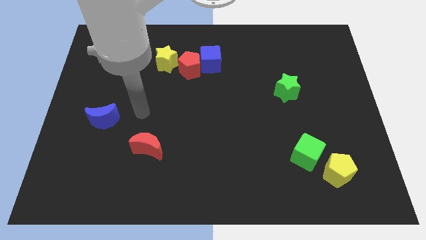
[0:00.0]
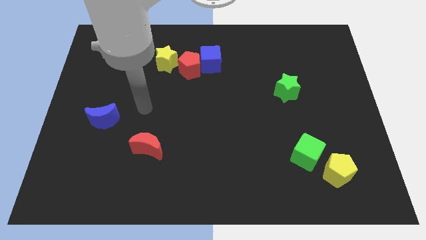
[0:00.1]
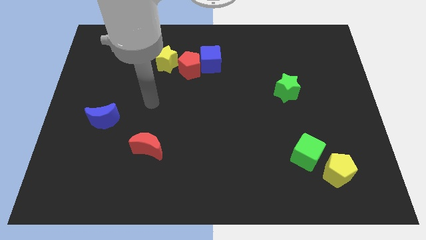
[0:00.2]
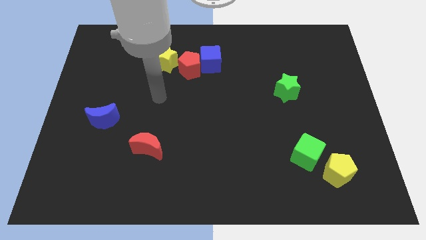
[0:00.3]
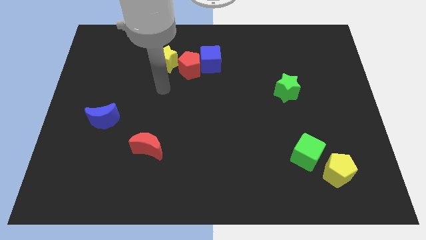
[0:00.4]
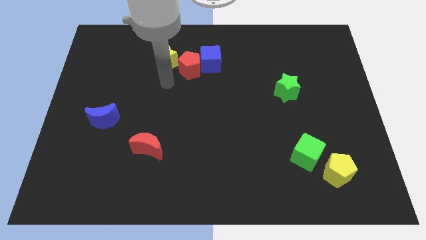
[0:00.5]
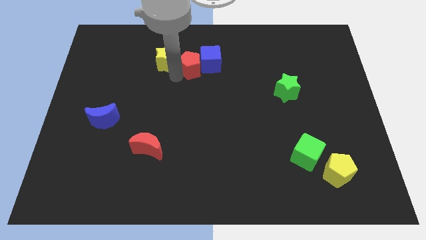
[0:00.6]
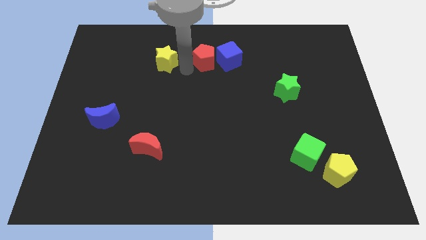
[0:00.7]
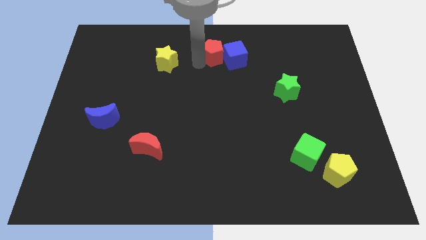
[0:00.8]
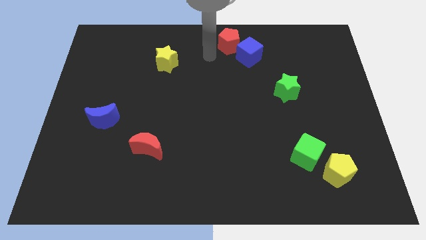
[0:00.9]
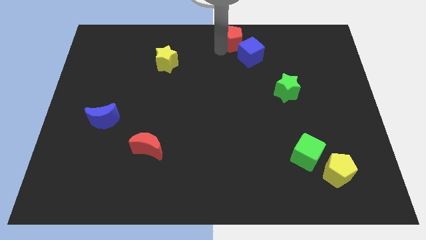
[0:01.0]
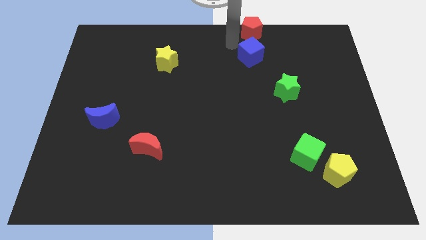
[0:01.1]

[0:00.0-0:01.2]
move the blue cube away from the red pentagon

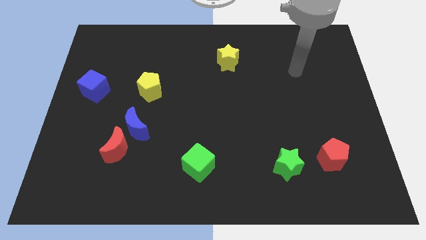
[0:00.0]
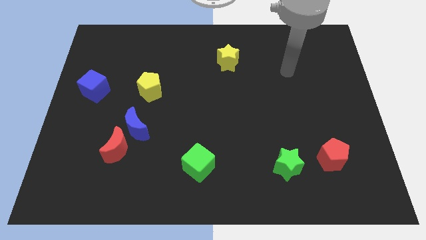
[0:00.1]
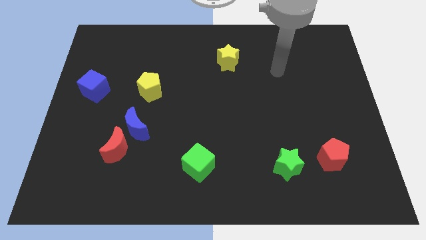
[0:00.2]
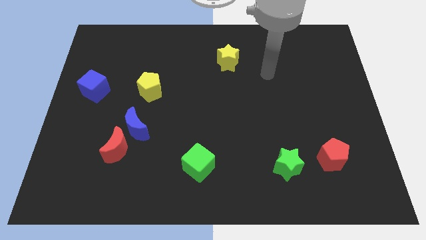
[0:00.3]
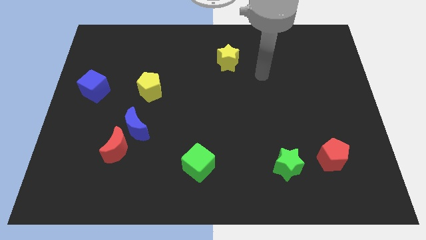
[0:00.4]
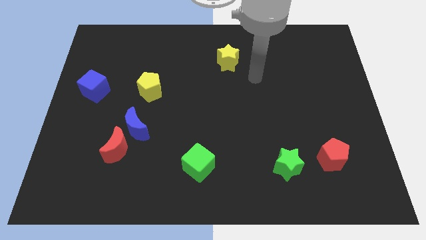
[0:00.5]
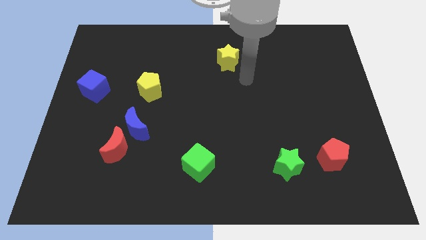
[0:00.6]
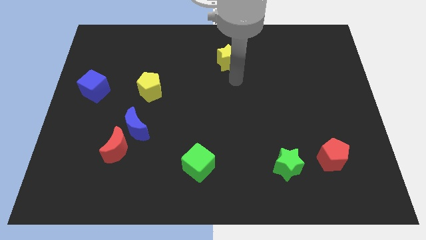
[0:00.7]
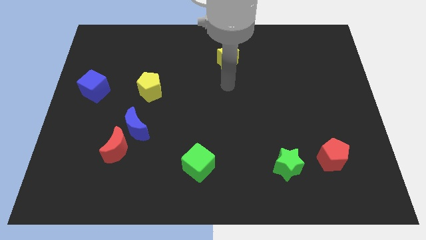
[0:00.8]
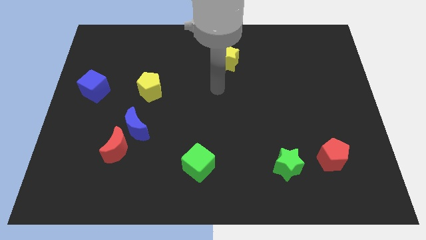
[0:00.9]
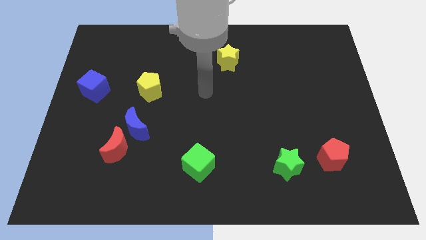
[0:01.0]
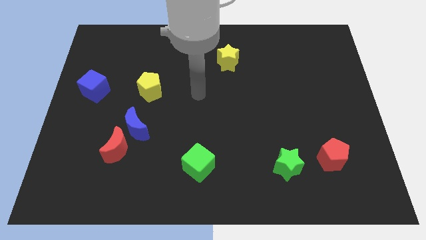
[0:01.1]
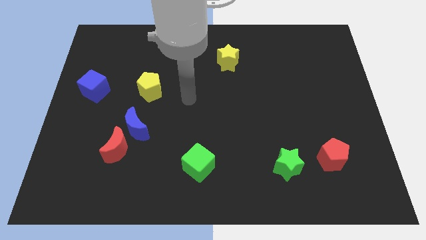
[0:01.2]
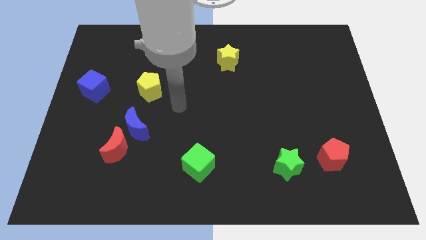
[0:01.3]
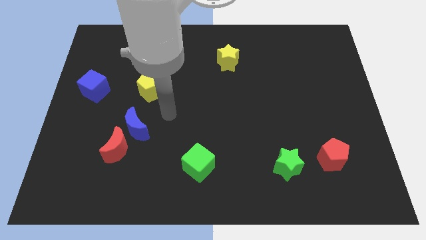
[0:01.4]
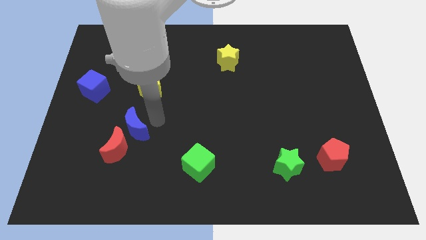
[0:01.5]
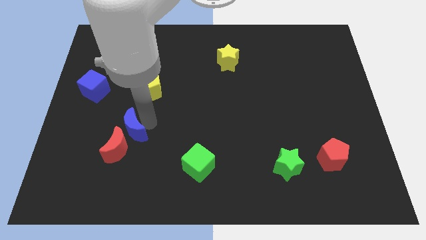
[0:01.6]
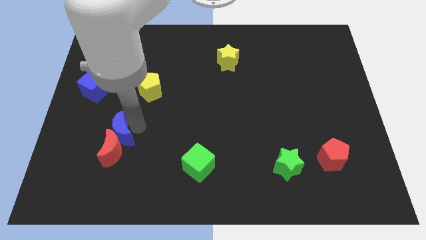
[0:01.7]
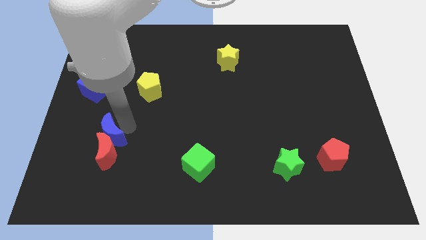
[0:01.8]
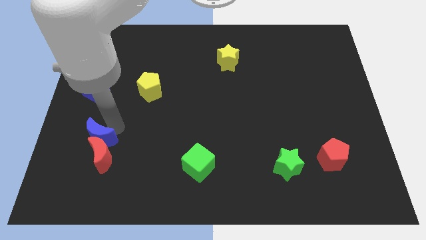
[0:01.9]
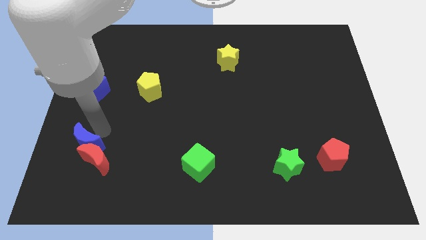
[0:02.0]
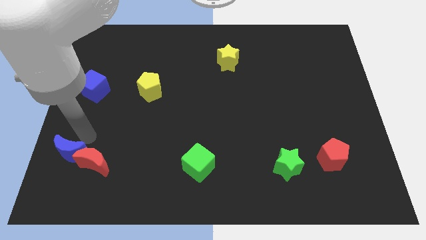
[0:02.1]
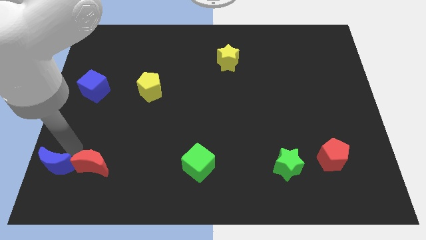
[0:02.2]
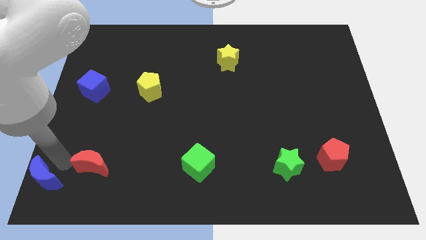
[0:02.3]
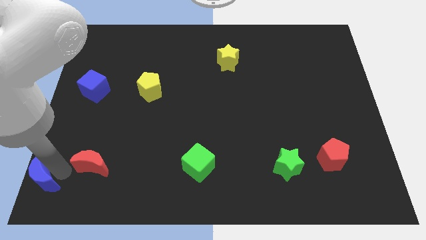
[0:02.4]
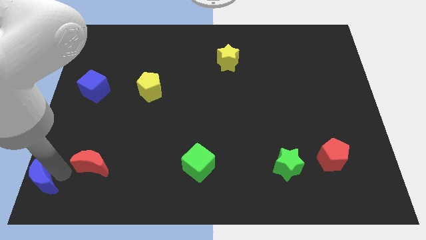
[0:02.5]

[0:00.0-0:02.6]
pull the red moon apart from the blue moon

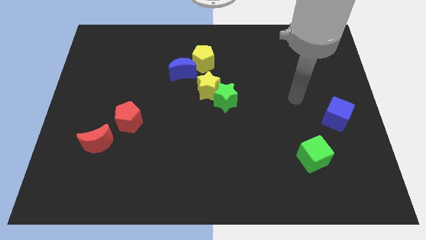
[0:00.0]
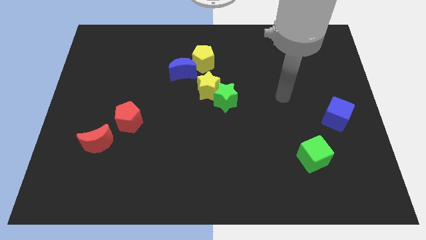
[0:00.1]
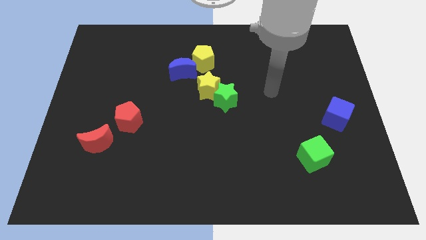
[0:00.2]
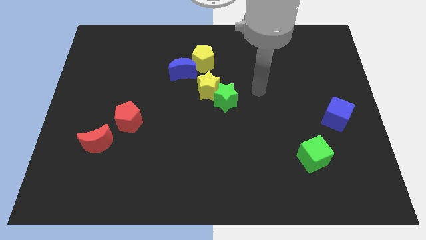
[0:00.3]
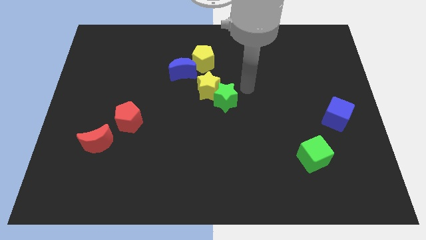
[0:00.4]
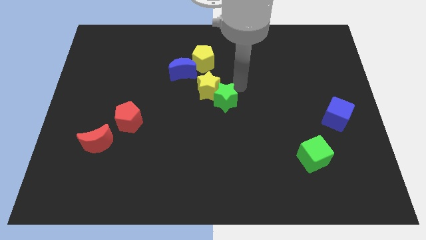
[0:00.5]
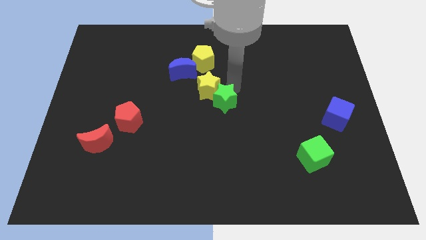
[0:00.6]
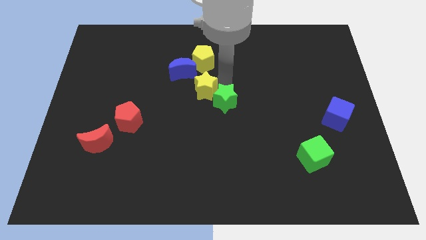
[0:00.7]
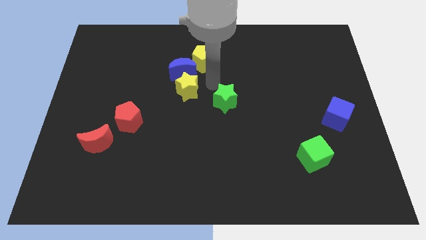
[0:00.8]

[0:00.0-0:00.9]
move the green star away from the yellow star

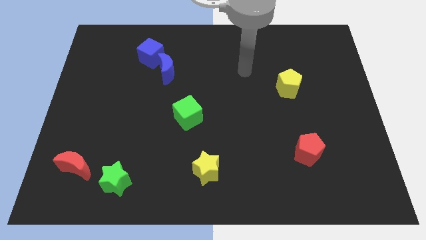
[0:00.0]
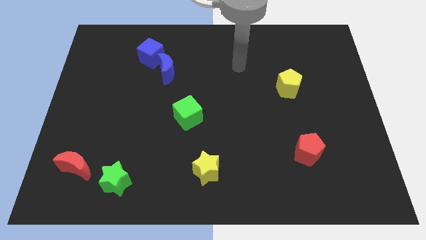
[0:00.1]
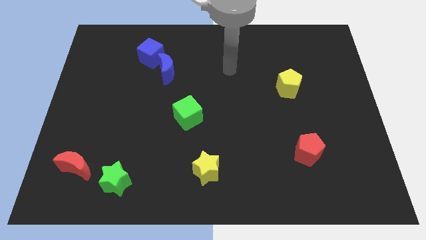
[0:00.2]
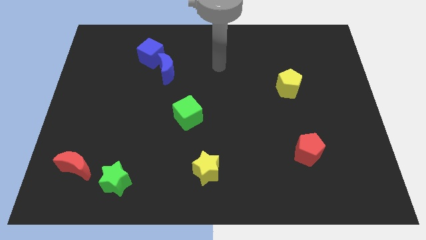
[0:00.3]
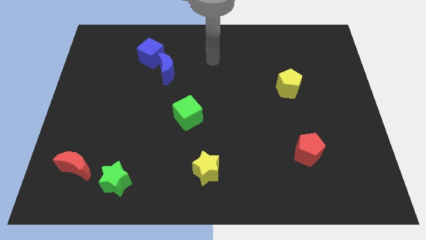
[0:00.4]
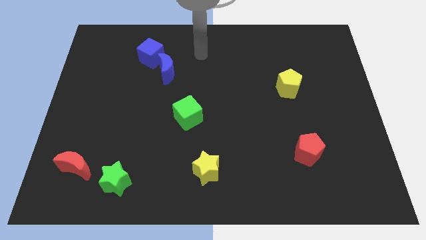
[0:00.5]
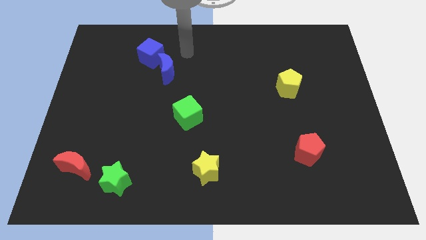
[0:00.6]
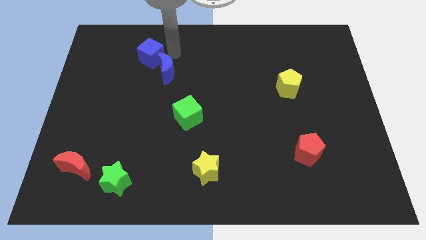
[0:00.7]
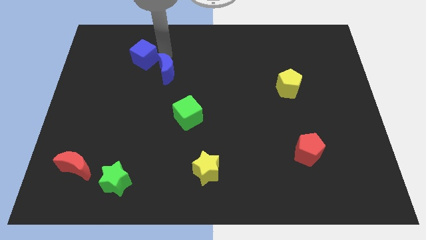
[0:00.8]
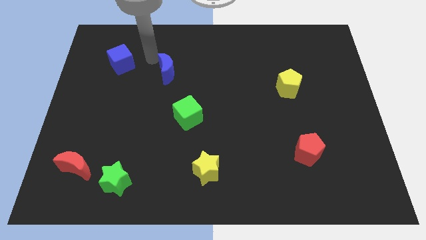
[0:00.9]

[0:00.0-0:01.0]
move the blue moon away from the blue cube

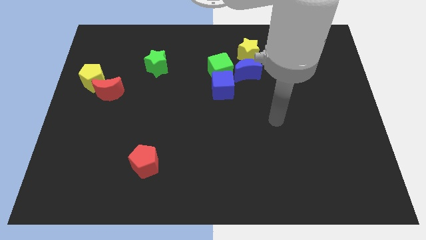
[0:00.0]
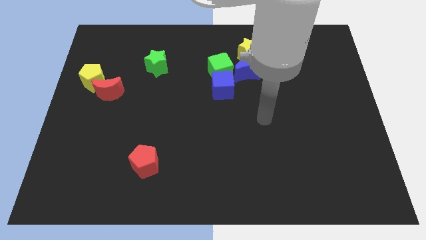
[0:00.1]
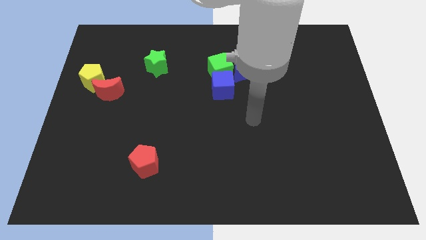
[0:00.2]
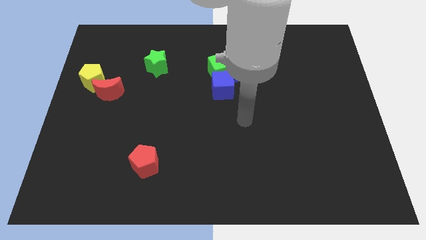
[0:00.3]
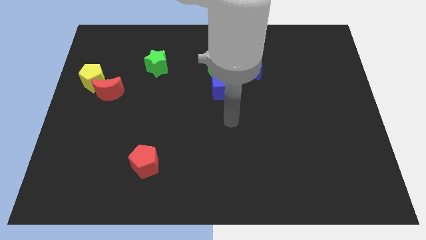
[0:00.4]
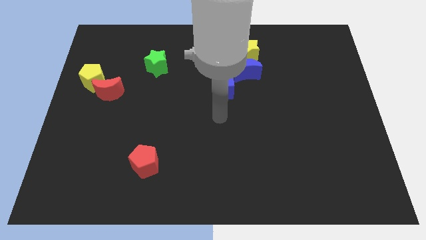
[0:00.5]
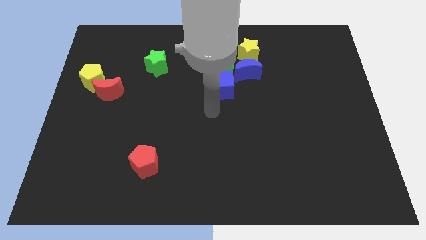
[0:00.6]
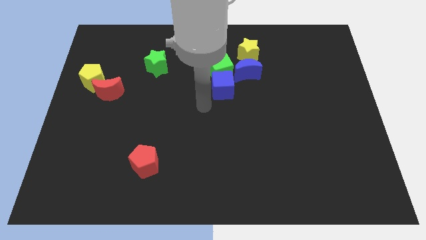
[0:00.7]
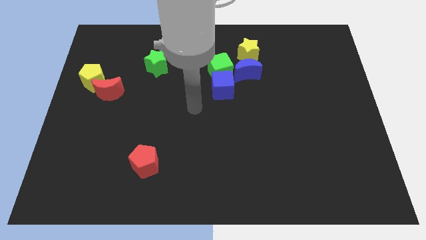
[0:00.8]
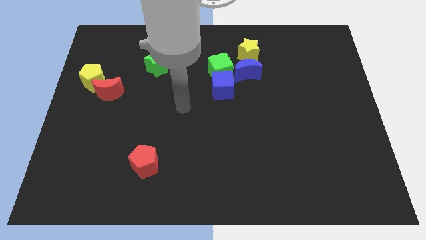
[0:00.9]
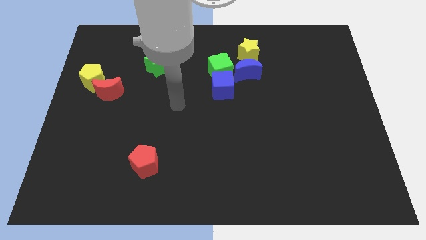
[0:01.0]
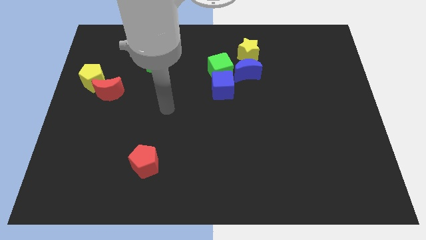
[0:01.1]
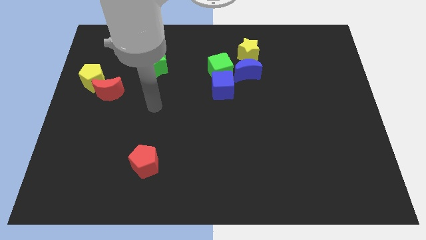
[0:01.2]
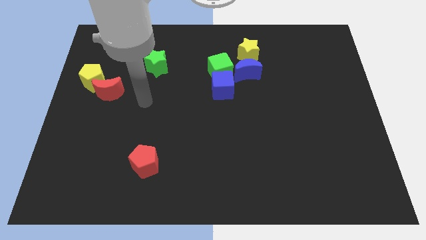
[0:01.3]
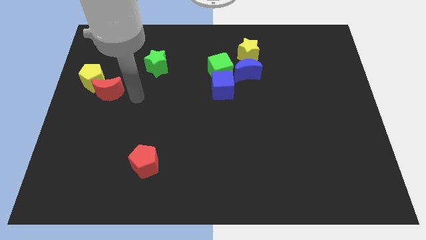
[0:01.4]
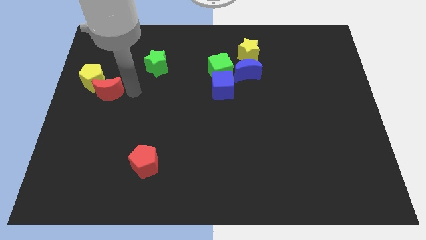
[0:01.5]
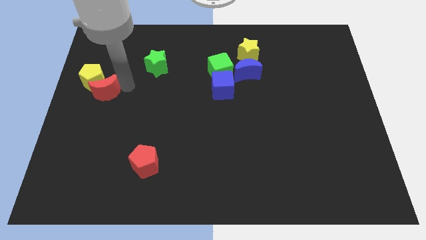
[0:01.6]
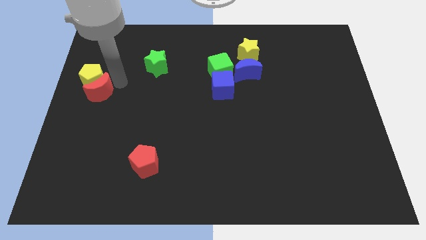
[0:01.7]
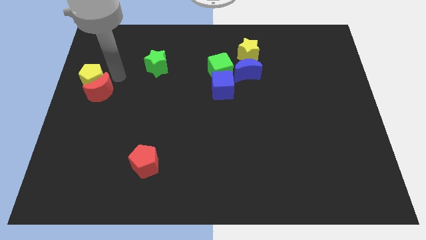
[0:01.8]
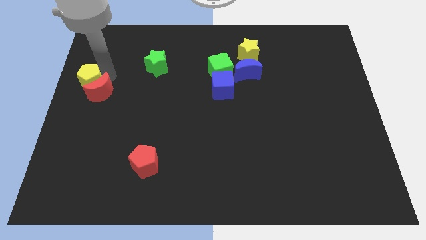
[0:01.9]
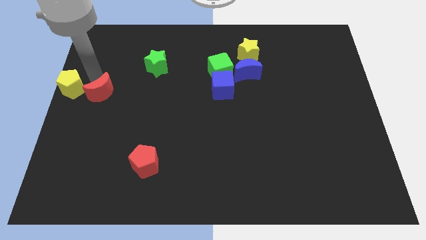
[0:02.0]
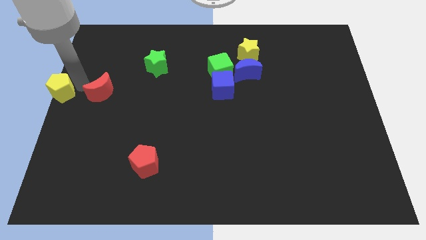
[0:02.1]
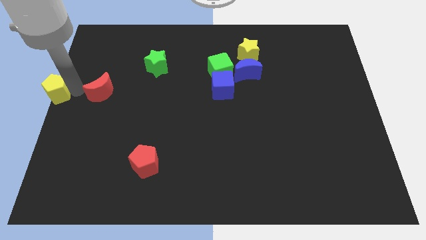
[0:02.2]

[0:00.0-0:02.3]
pull the red moon apart from the yellow pentagon

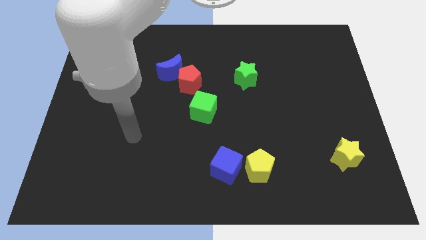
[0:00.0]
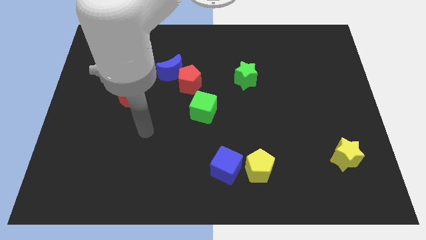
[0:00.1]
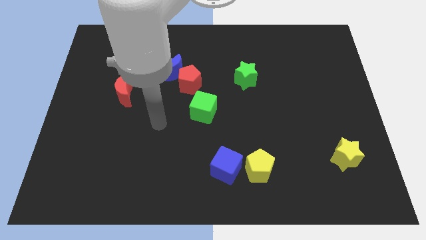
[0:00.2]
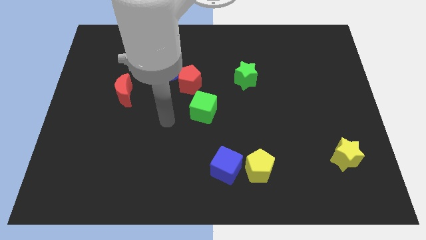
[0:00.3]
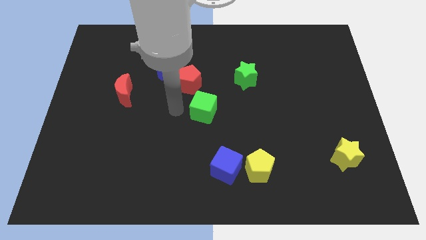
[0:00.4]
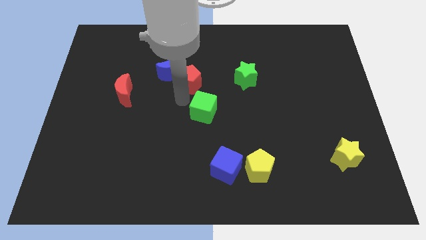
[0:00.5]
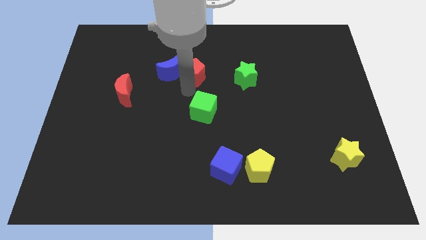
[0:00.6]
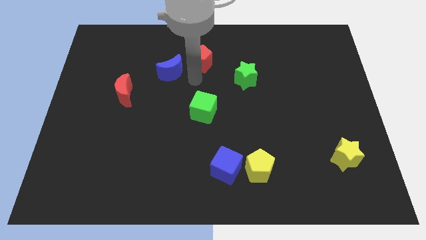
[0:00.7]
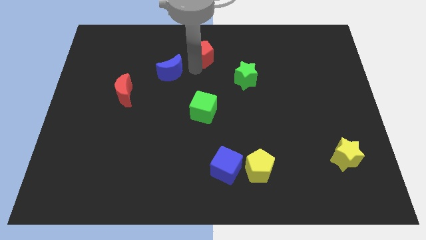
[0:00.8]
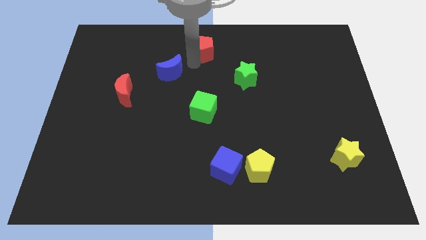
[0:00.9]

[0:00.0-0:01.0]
separate the blue moon from the red pentagon

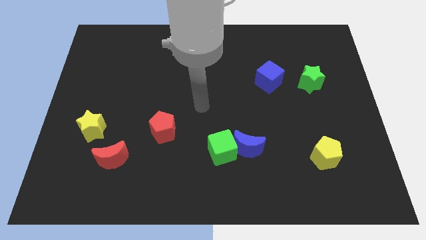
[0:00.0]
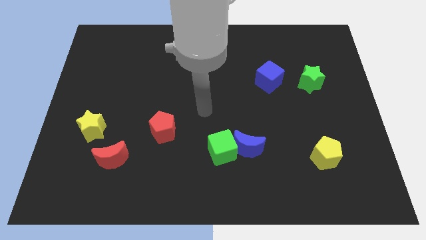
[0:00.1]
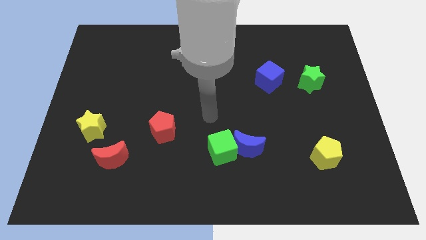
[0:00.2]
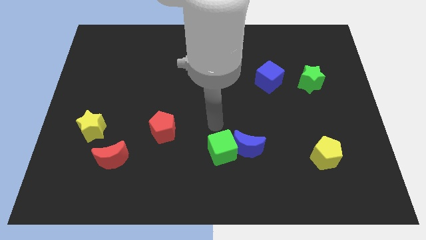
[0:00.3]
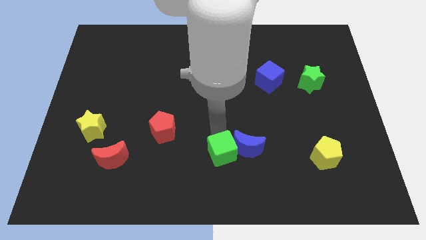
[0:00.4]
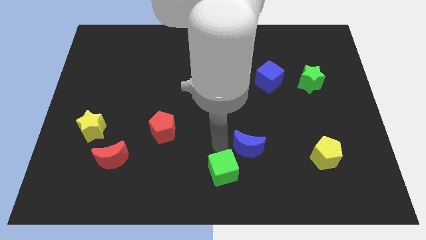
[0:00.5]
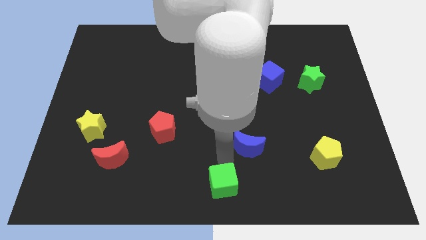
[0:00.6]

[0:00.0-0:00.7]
move the blue moon away from the green cube
